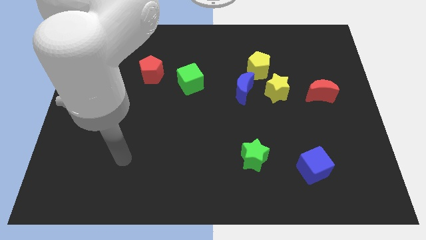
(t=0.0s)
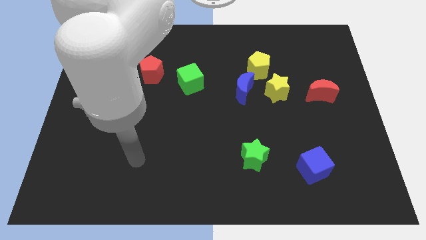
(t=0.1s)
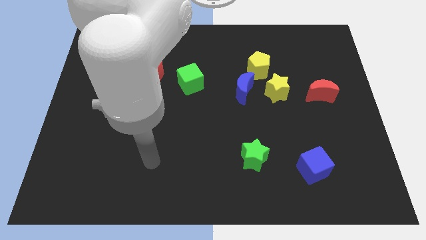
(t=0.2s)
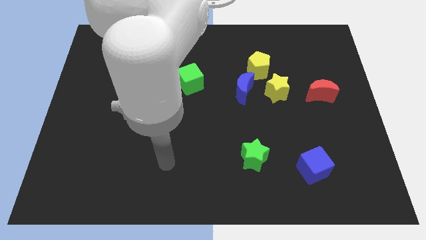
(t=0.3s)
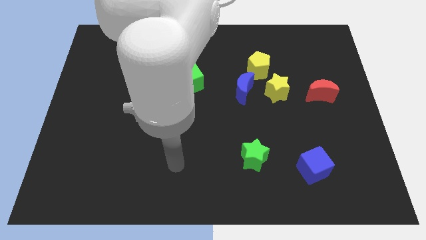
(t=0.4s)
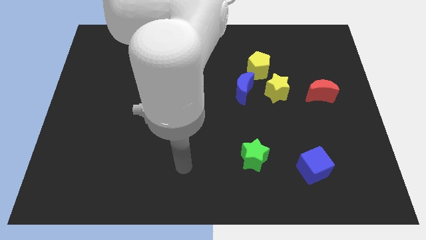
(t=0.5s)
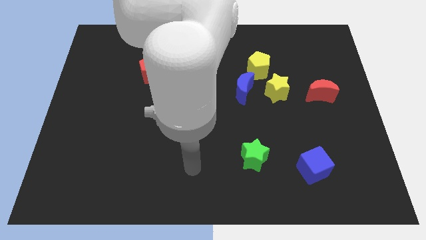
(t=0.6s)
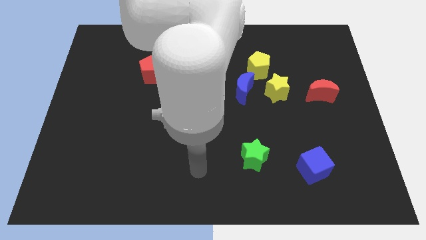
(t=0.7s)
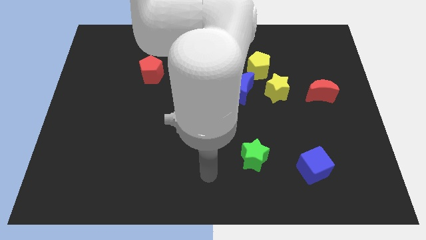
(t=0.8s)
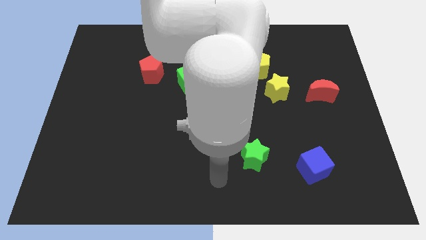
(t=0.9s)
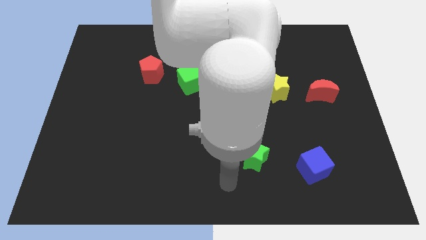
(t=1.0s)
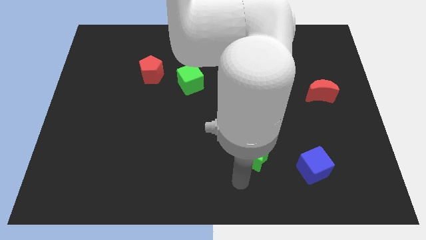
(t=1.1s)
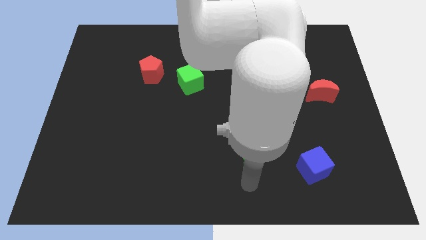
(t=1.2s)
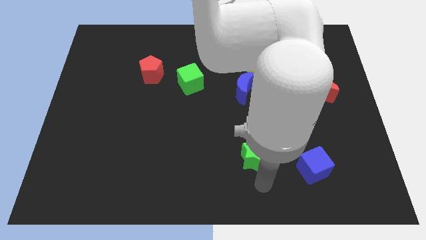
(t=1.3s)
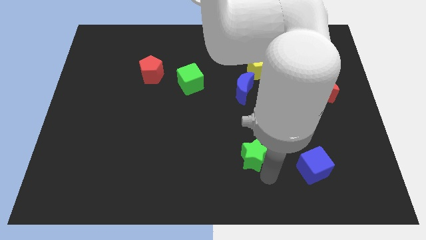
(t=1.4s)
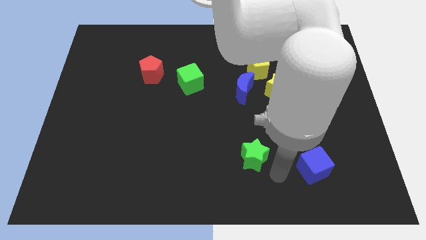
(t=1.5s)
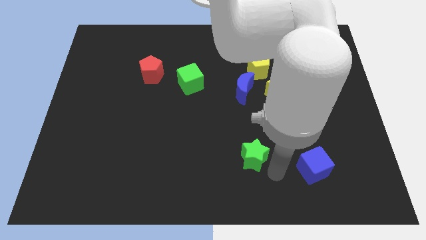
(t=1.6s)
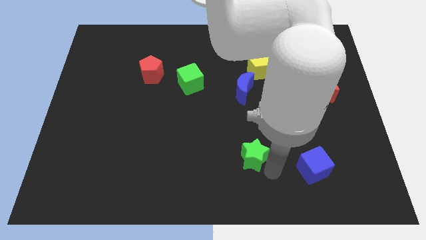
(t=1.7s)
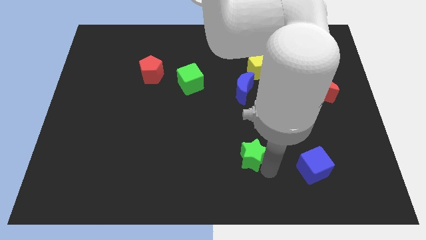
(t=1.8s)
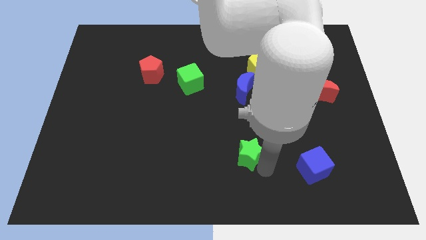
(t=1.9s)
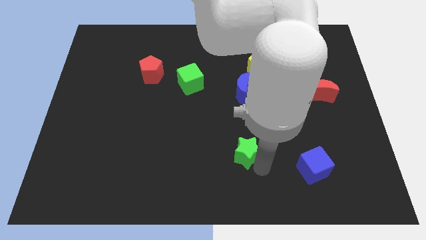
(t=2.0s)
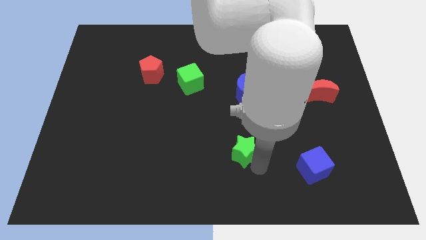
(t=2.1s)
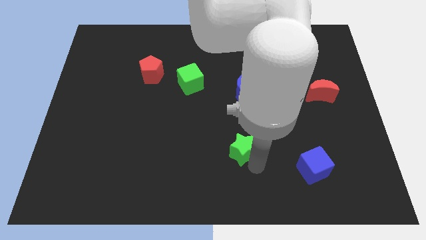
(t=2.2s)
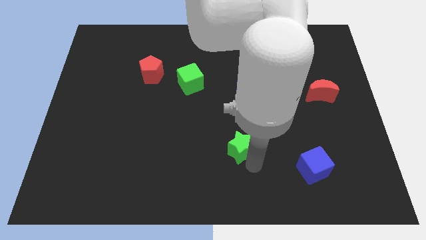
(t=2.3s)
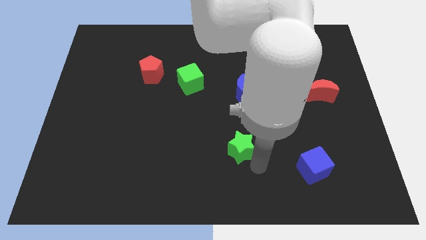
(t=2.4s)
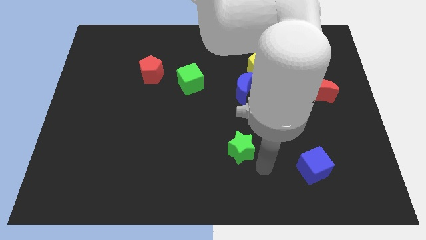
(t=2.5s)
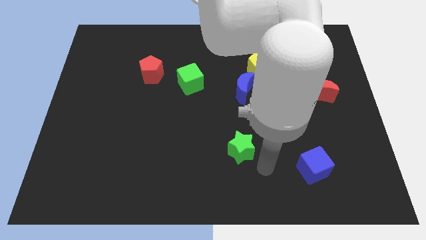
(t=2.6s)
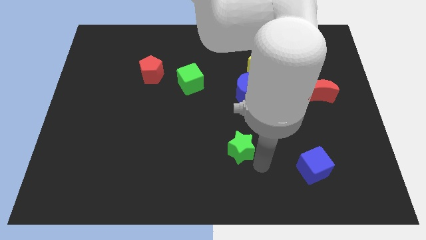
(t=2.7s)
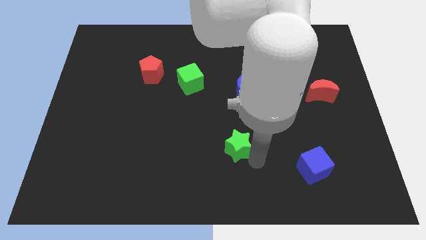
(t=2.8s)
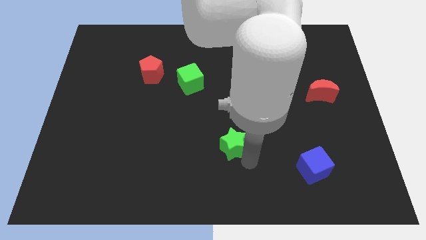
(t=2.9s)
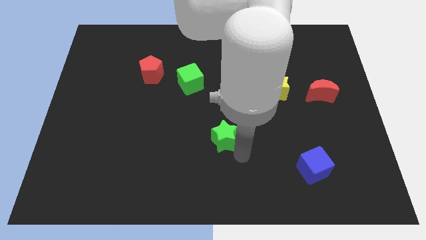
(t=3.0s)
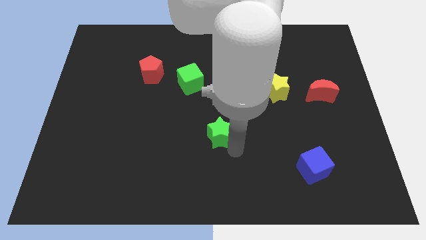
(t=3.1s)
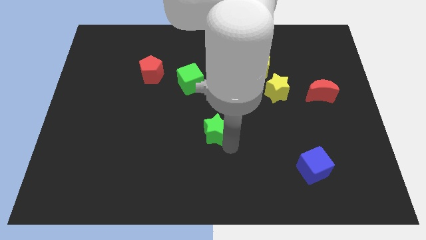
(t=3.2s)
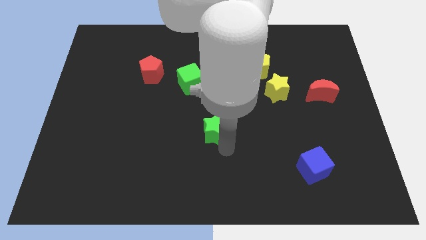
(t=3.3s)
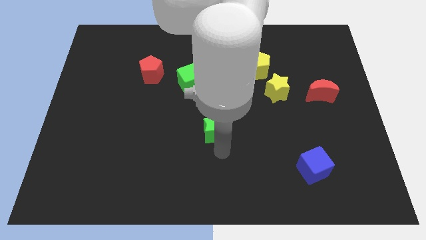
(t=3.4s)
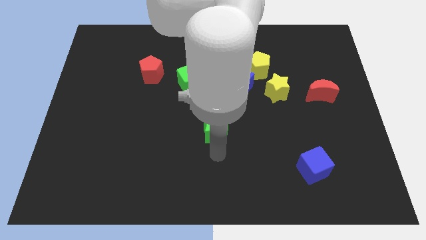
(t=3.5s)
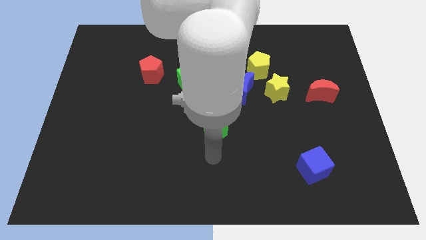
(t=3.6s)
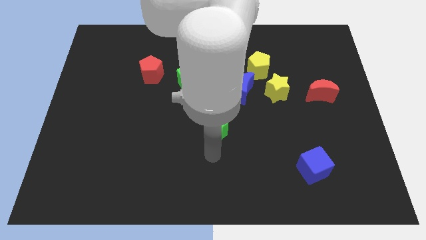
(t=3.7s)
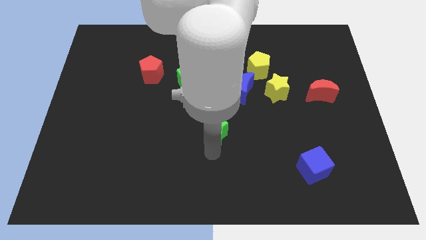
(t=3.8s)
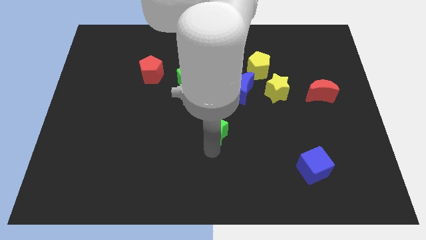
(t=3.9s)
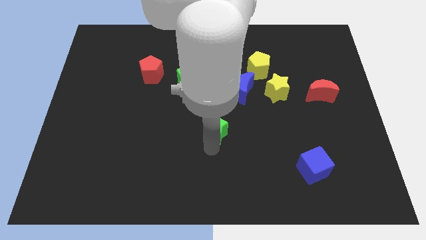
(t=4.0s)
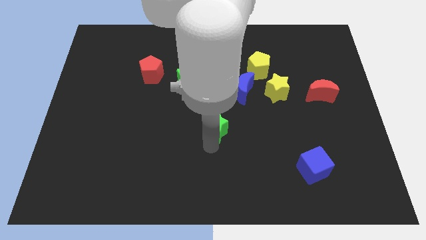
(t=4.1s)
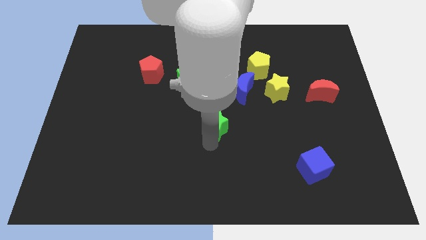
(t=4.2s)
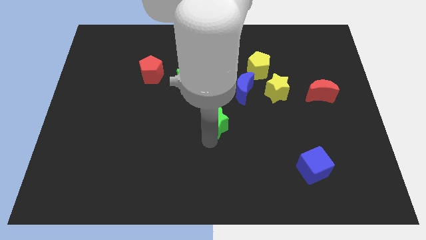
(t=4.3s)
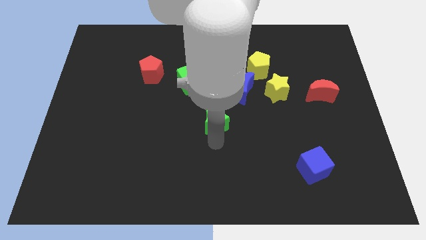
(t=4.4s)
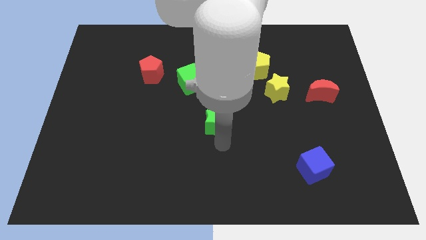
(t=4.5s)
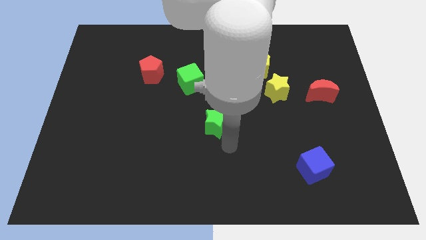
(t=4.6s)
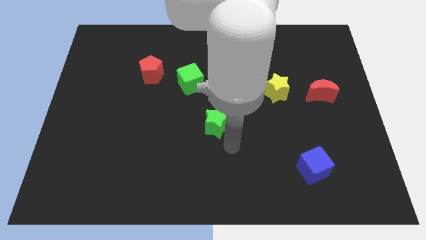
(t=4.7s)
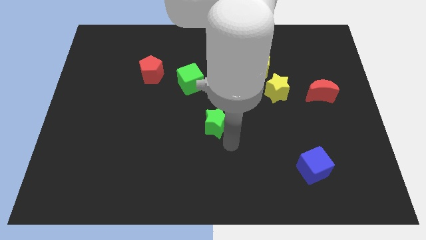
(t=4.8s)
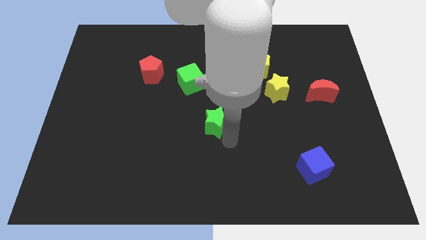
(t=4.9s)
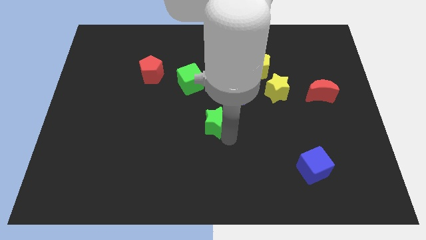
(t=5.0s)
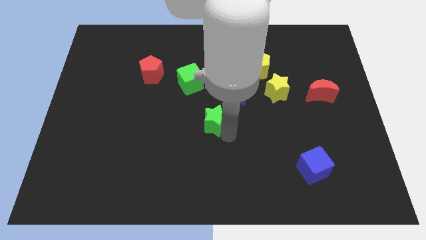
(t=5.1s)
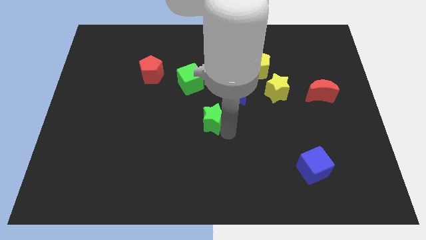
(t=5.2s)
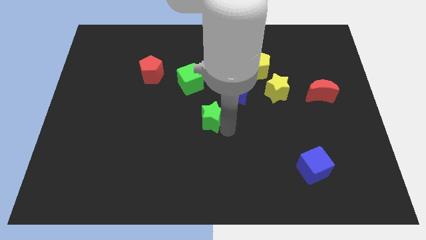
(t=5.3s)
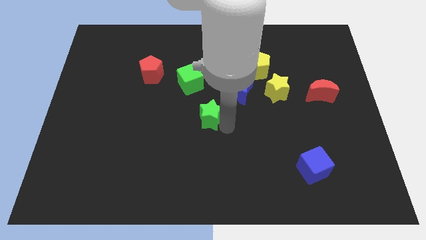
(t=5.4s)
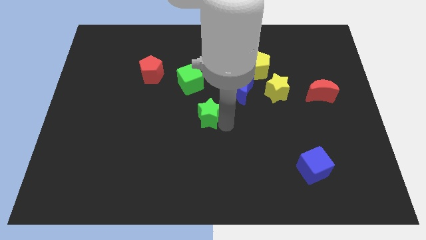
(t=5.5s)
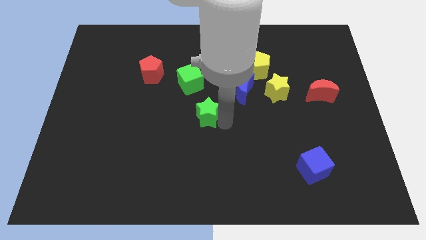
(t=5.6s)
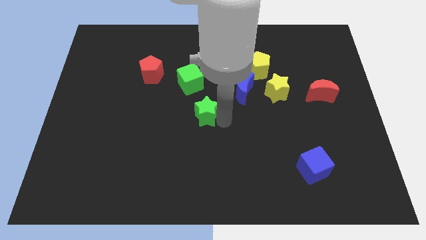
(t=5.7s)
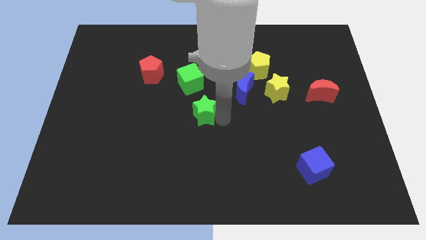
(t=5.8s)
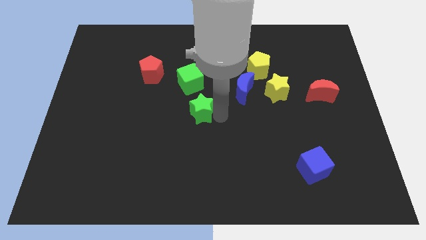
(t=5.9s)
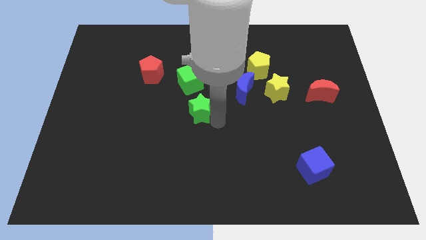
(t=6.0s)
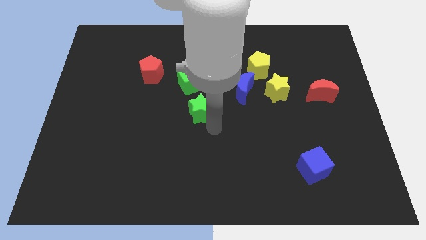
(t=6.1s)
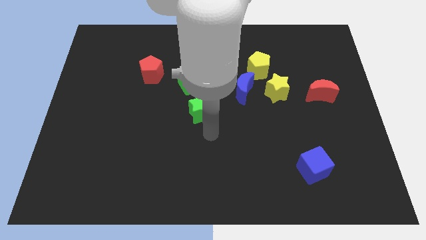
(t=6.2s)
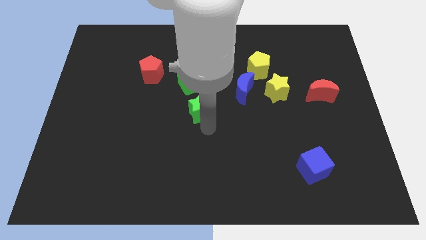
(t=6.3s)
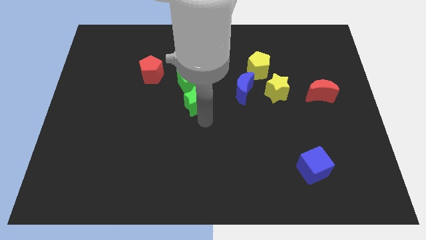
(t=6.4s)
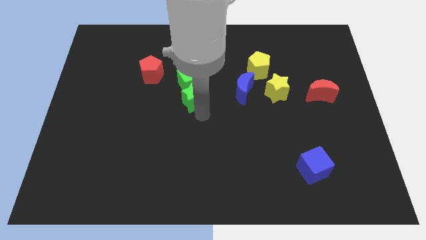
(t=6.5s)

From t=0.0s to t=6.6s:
put the green star towards the green cube

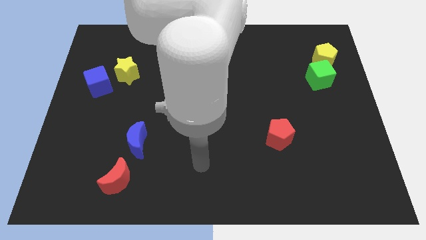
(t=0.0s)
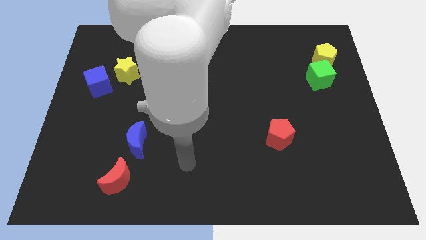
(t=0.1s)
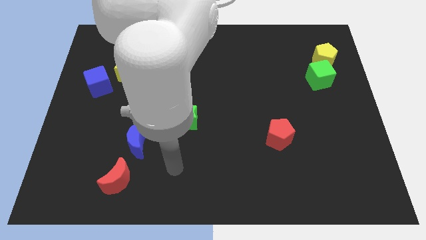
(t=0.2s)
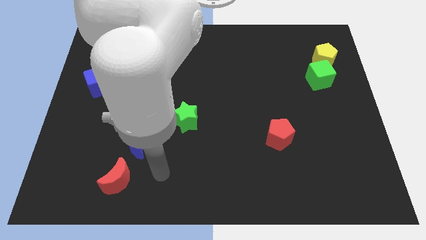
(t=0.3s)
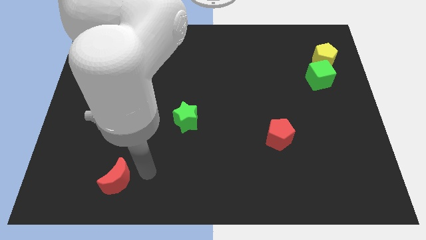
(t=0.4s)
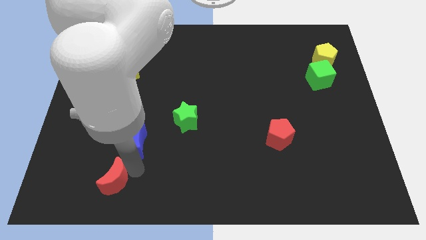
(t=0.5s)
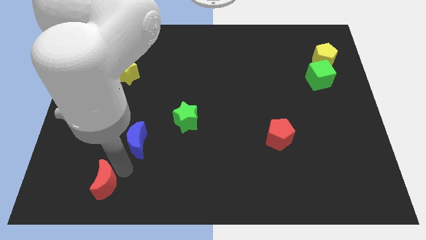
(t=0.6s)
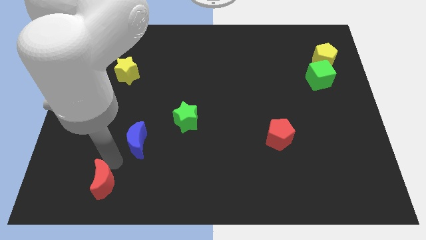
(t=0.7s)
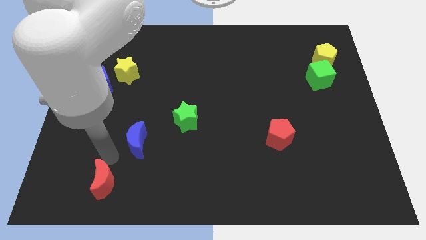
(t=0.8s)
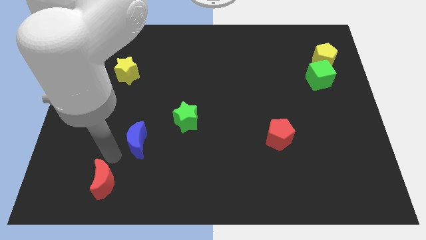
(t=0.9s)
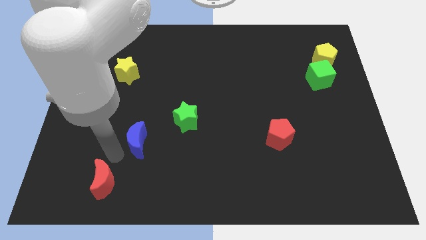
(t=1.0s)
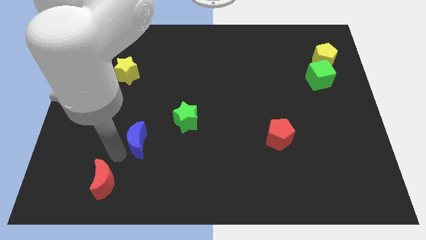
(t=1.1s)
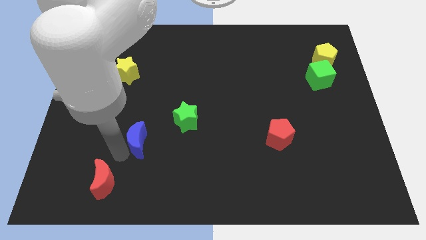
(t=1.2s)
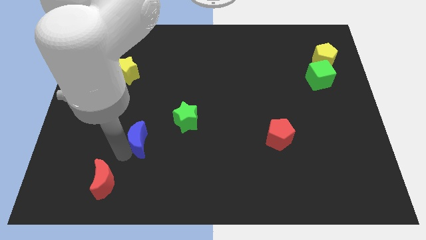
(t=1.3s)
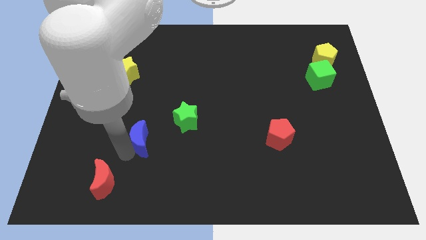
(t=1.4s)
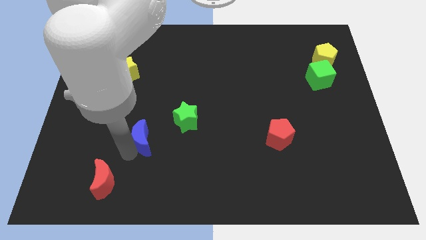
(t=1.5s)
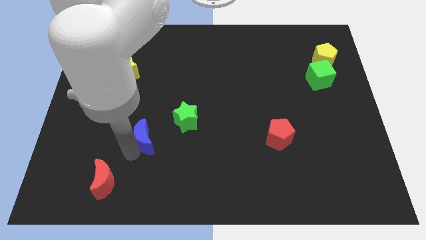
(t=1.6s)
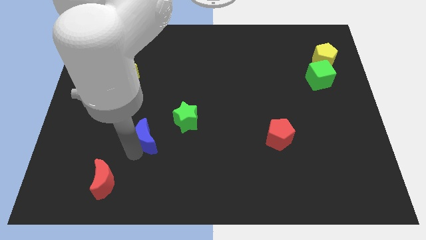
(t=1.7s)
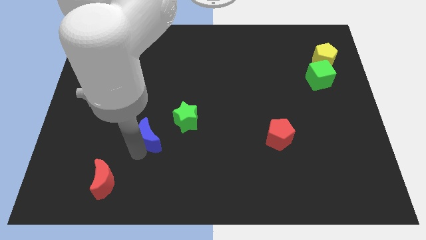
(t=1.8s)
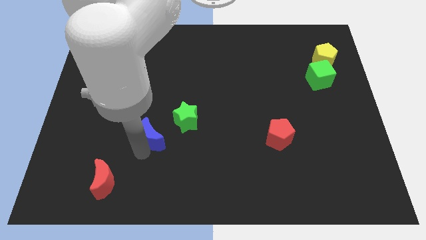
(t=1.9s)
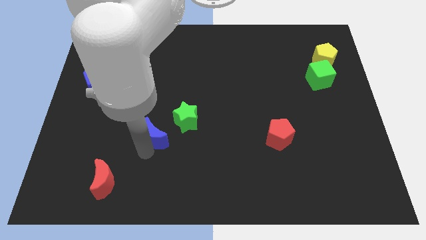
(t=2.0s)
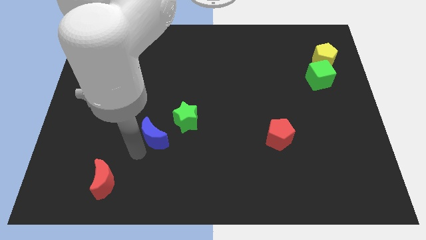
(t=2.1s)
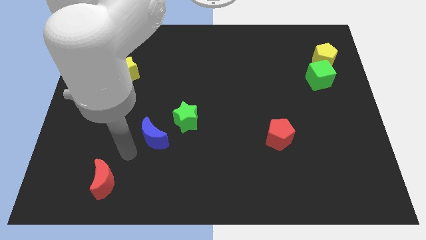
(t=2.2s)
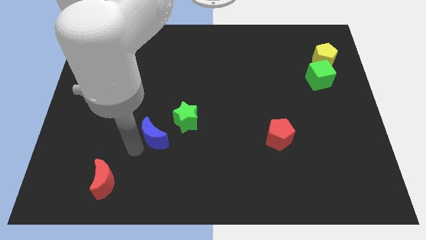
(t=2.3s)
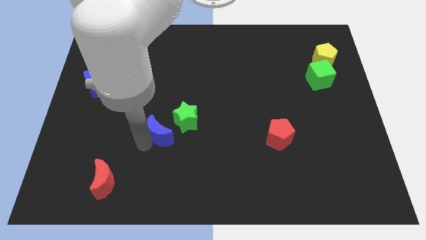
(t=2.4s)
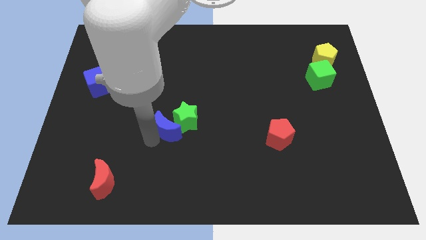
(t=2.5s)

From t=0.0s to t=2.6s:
push the blue moon towards the green star
